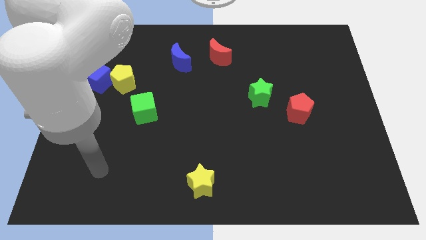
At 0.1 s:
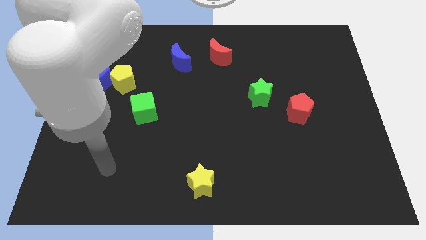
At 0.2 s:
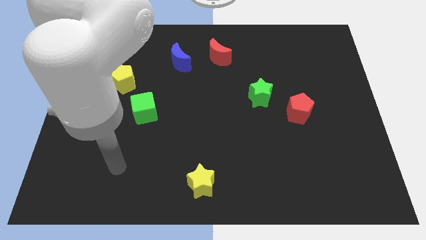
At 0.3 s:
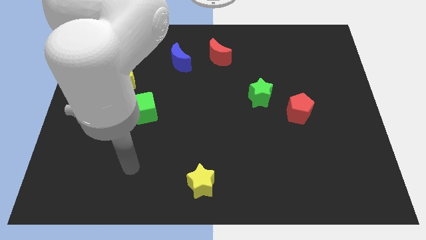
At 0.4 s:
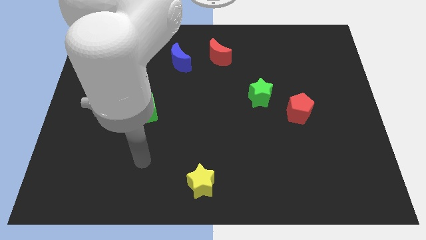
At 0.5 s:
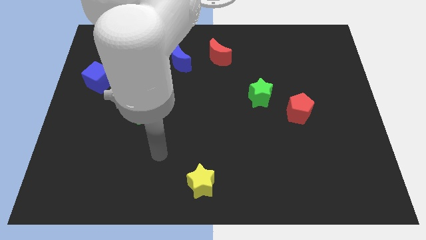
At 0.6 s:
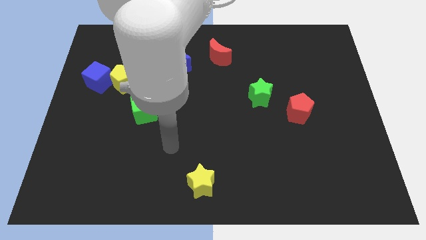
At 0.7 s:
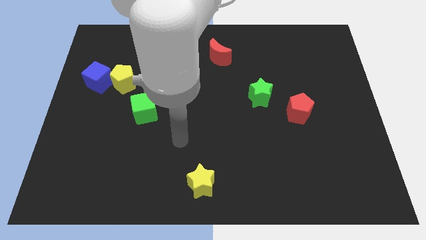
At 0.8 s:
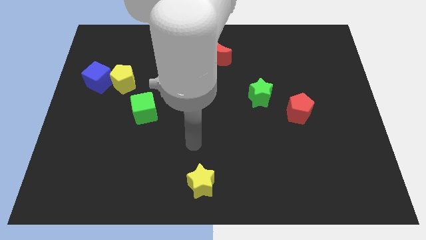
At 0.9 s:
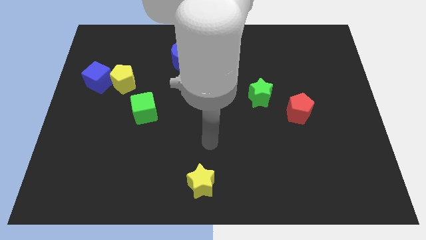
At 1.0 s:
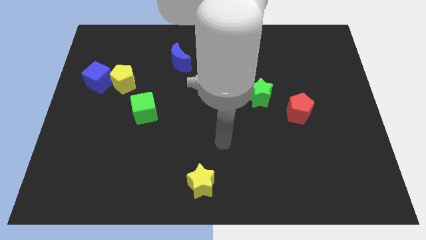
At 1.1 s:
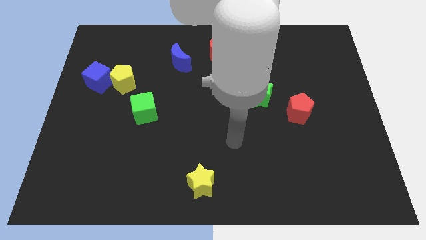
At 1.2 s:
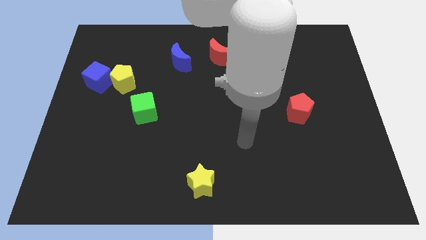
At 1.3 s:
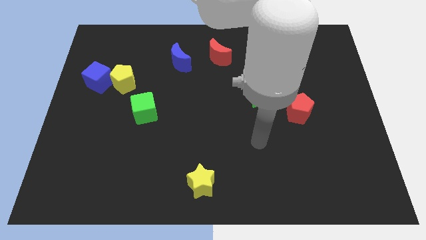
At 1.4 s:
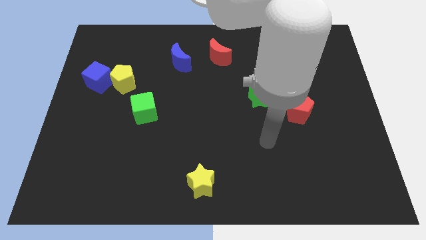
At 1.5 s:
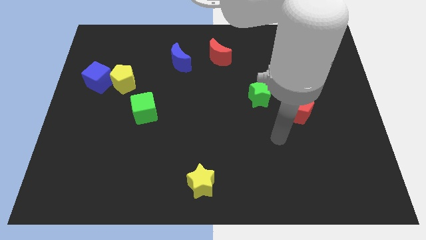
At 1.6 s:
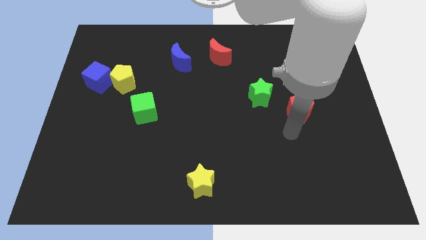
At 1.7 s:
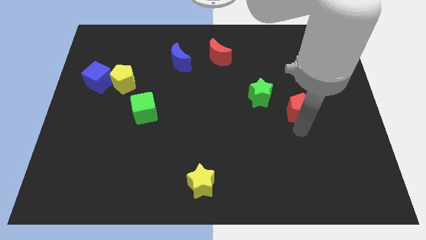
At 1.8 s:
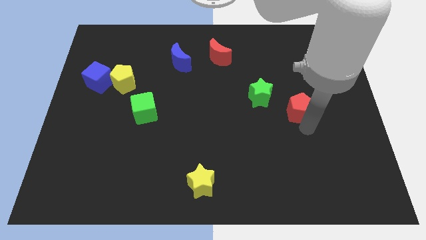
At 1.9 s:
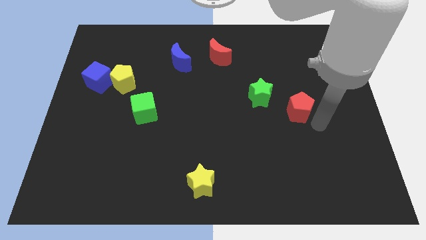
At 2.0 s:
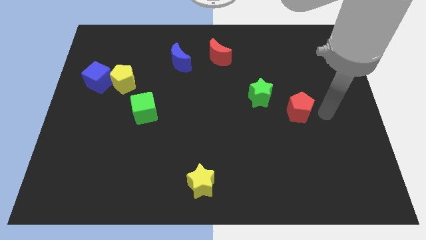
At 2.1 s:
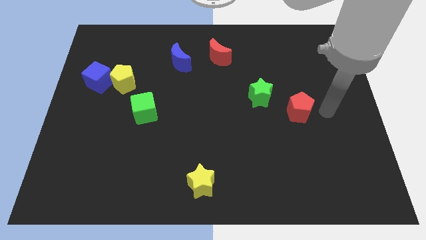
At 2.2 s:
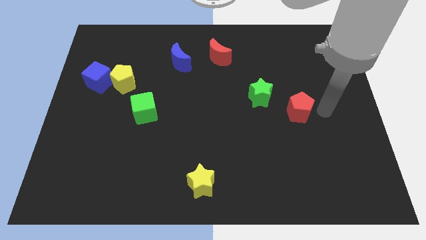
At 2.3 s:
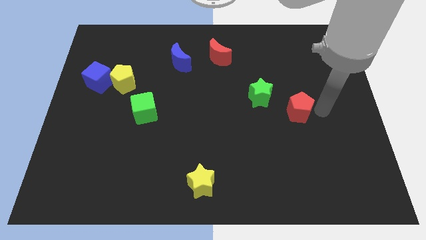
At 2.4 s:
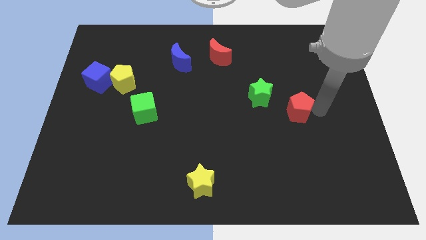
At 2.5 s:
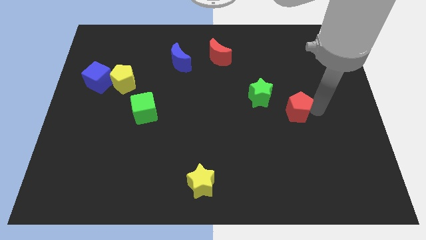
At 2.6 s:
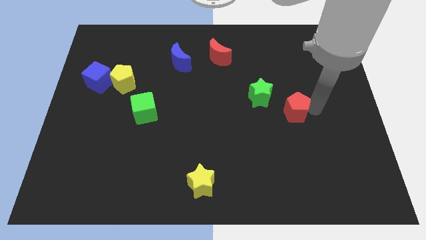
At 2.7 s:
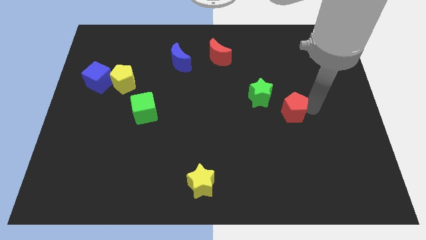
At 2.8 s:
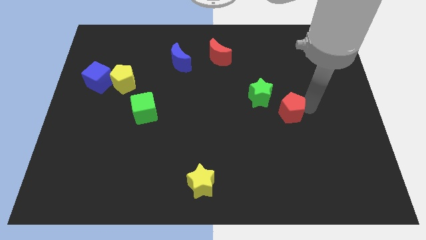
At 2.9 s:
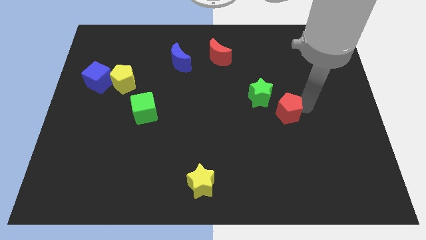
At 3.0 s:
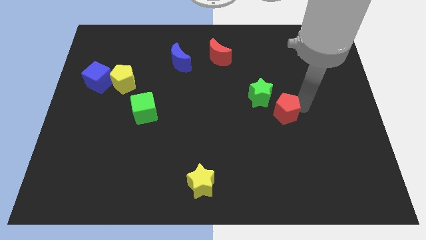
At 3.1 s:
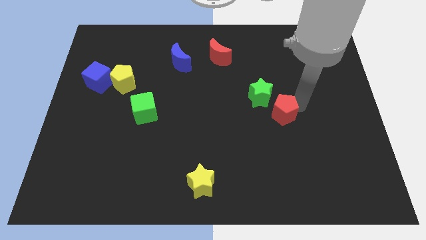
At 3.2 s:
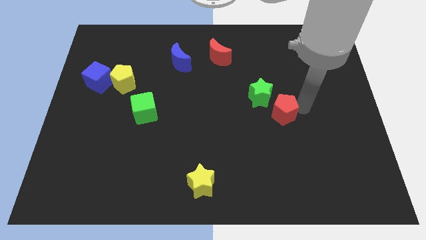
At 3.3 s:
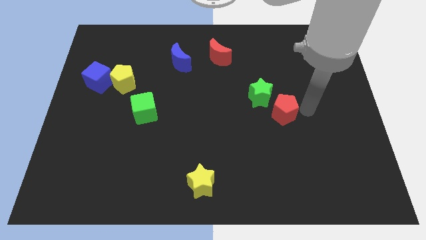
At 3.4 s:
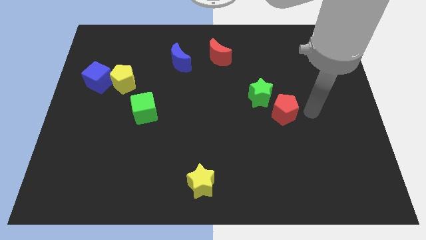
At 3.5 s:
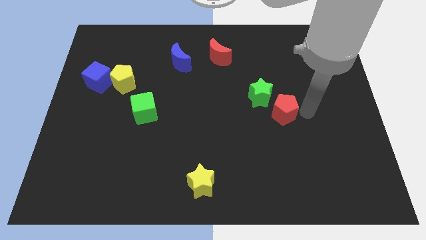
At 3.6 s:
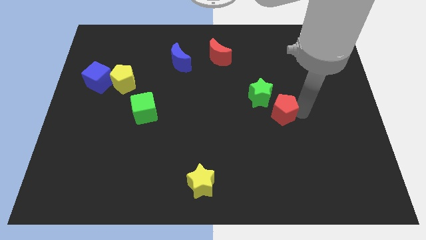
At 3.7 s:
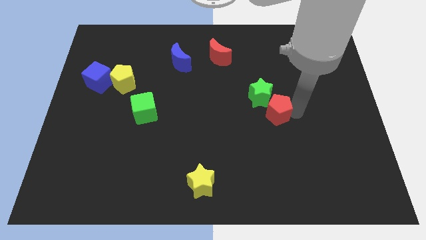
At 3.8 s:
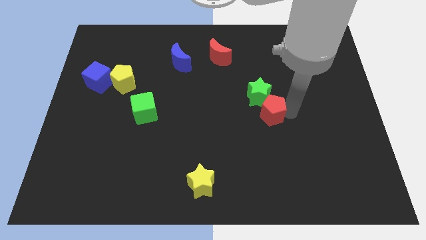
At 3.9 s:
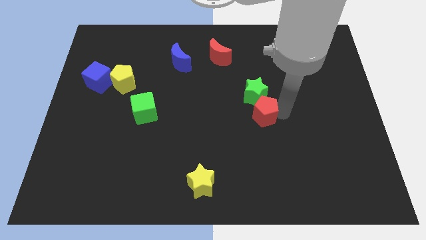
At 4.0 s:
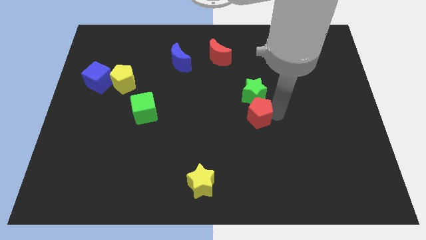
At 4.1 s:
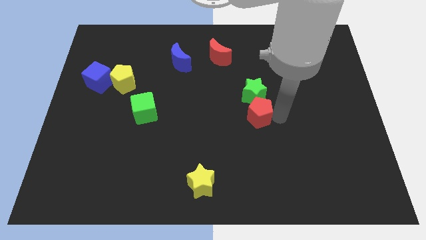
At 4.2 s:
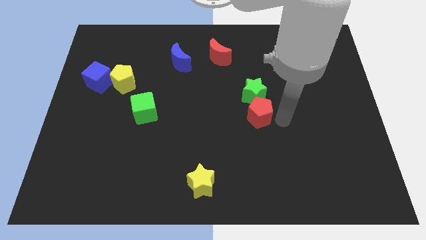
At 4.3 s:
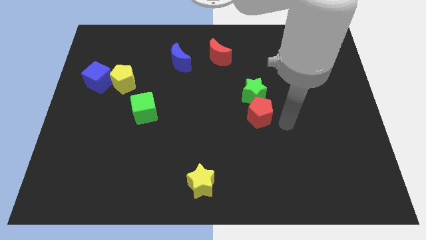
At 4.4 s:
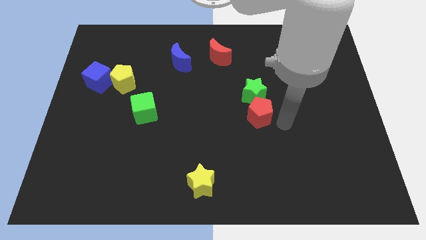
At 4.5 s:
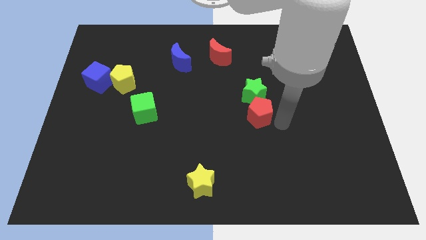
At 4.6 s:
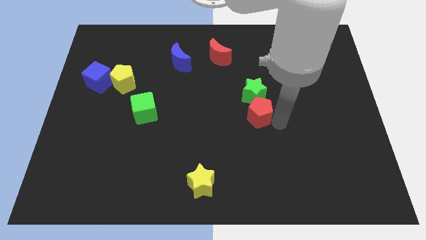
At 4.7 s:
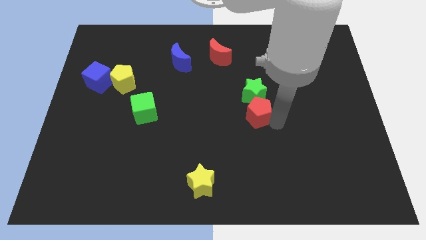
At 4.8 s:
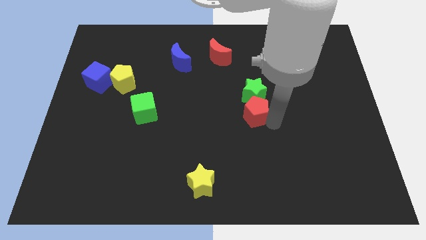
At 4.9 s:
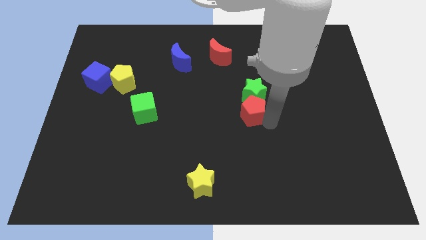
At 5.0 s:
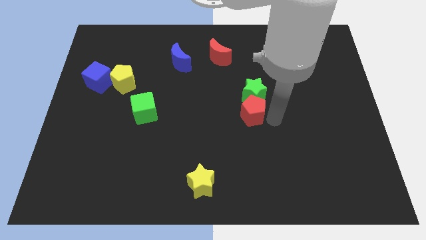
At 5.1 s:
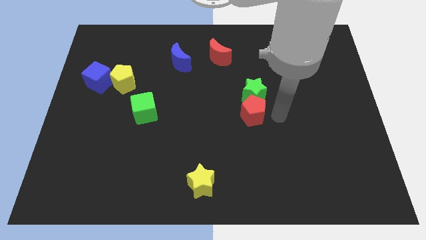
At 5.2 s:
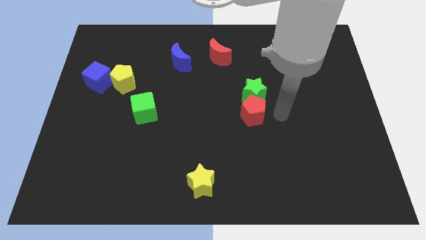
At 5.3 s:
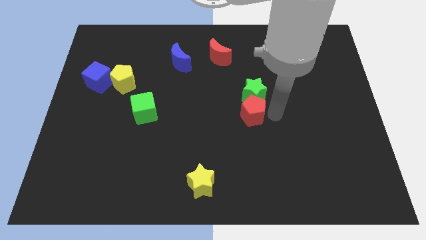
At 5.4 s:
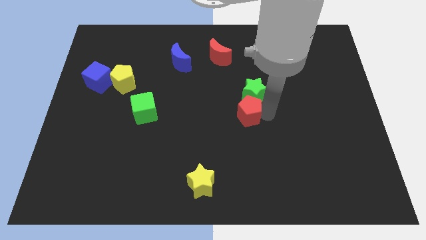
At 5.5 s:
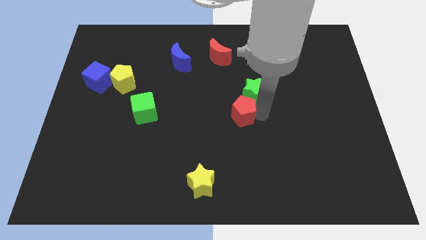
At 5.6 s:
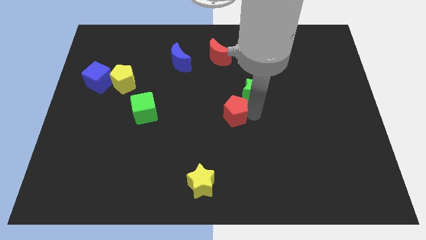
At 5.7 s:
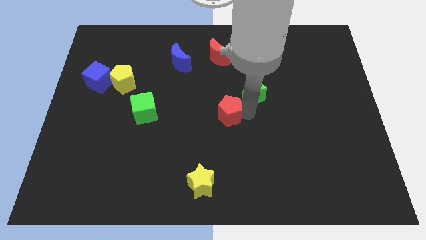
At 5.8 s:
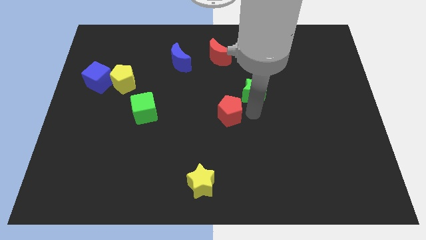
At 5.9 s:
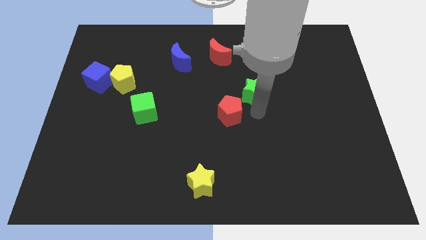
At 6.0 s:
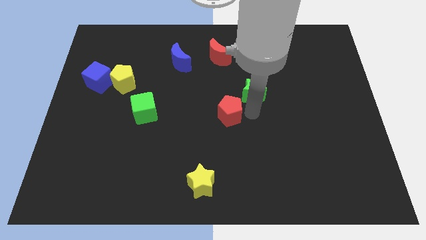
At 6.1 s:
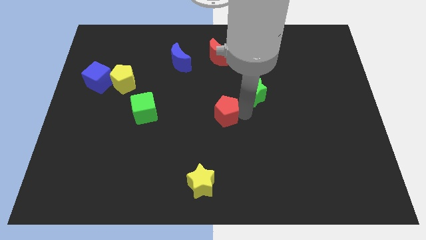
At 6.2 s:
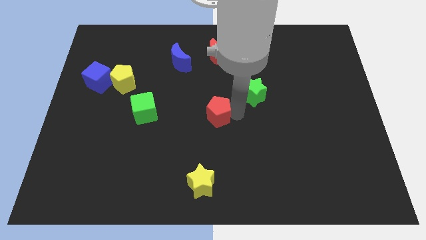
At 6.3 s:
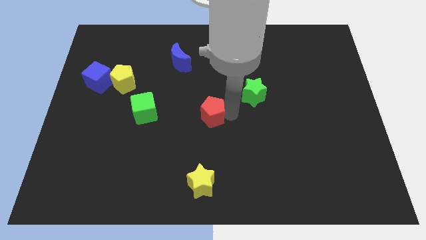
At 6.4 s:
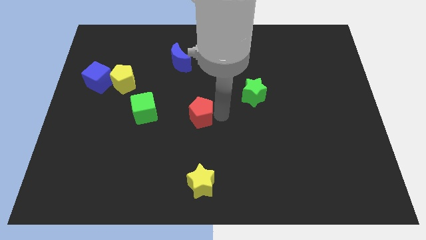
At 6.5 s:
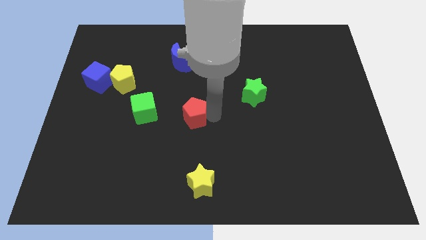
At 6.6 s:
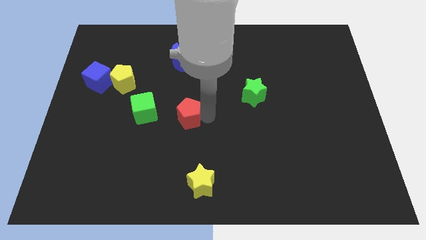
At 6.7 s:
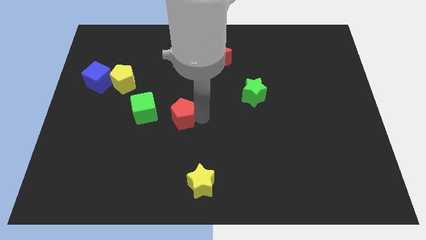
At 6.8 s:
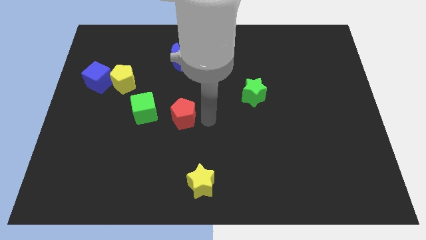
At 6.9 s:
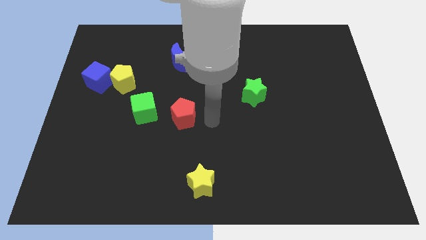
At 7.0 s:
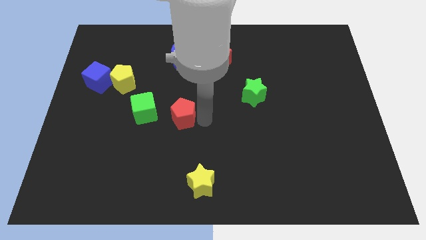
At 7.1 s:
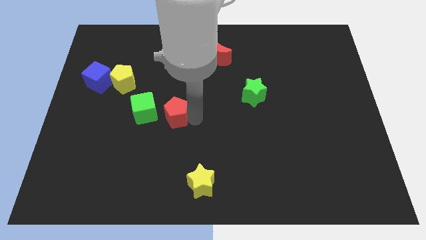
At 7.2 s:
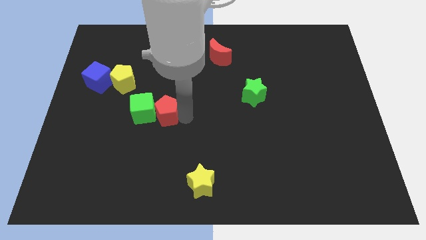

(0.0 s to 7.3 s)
move the red pentagon towards the green cube

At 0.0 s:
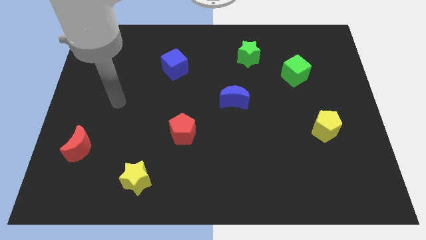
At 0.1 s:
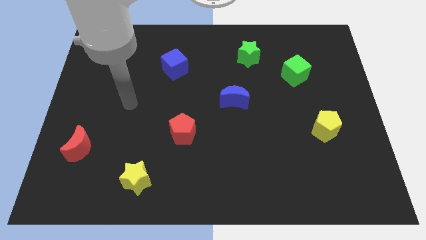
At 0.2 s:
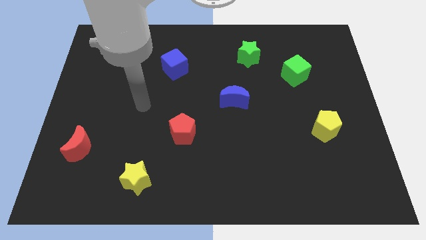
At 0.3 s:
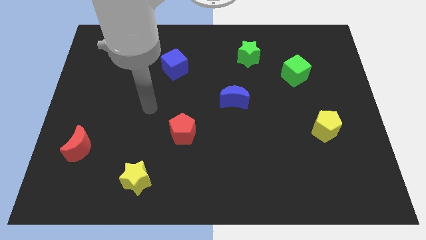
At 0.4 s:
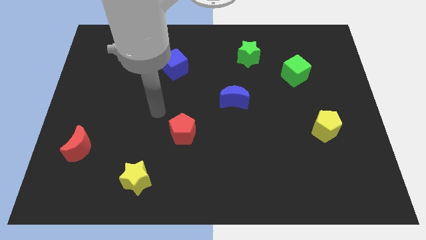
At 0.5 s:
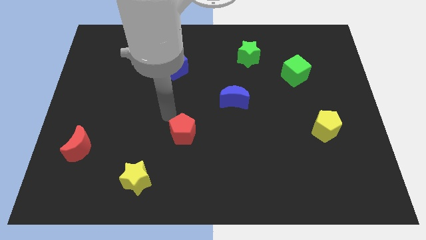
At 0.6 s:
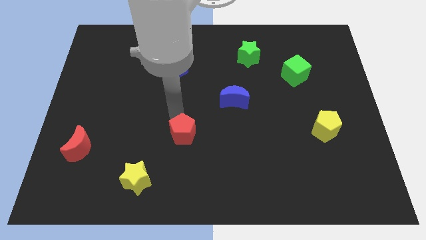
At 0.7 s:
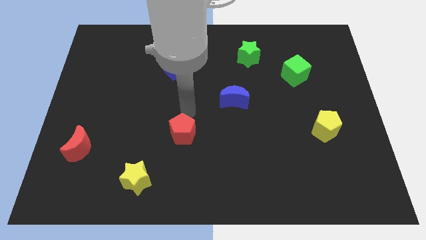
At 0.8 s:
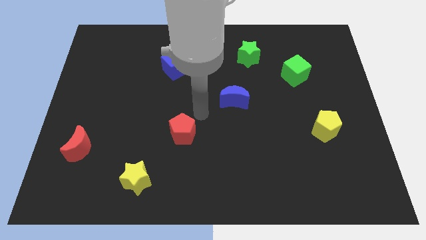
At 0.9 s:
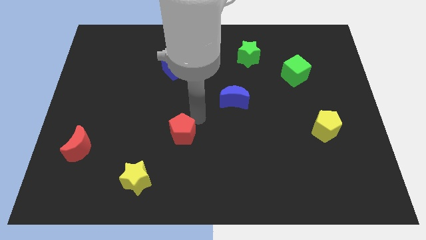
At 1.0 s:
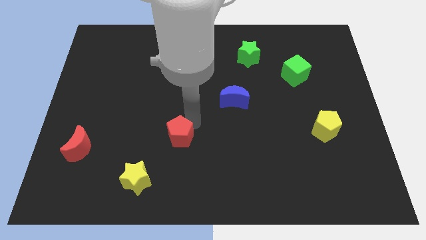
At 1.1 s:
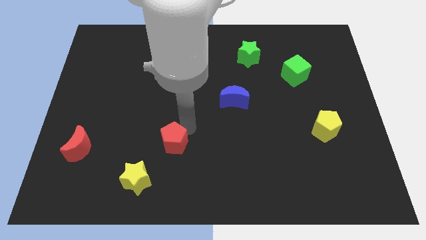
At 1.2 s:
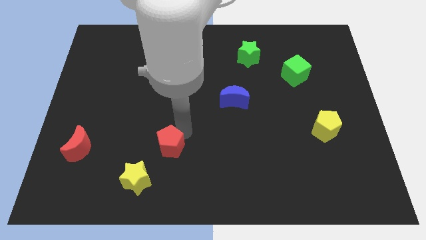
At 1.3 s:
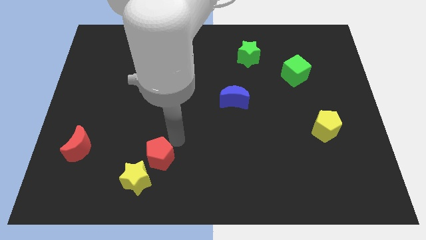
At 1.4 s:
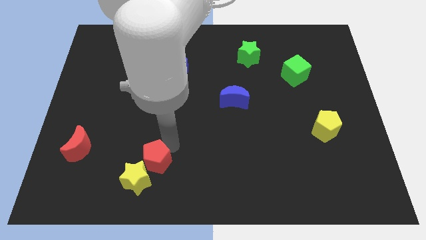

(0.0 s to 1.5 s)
put the red pentagon close to the yellow star
